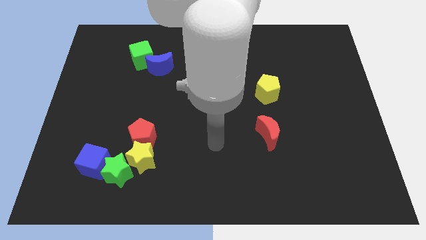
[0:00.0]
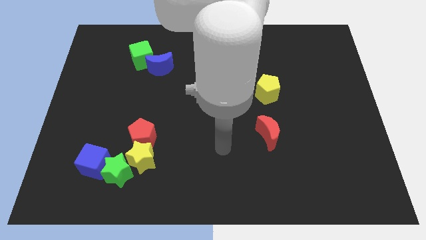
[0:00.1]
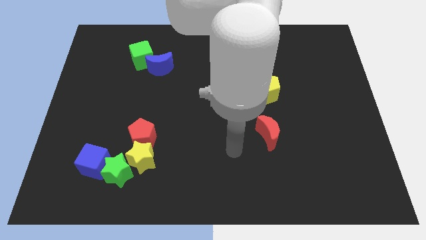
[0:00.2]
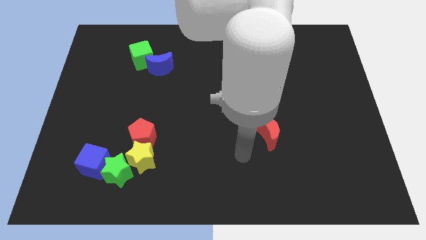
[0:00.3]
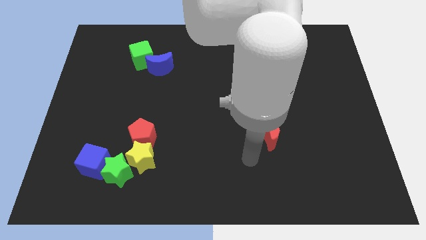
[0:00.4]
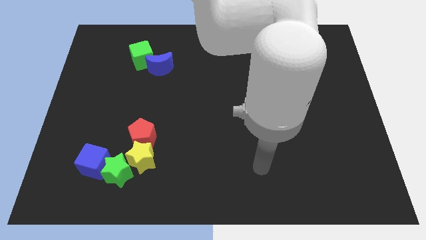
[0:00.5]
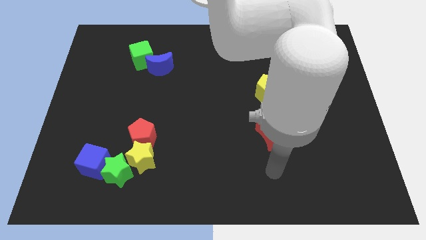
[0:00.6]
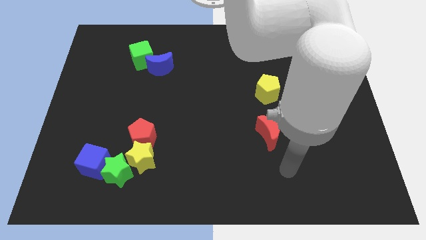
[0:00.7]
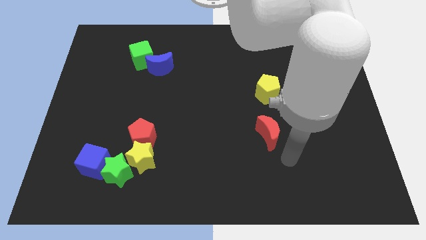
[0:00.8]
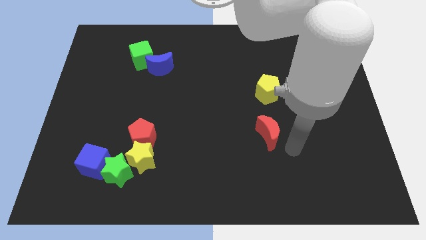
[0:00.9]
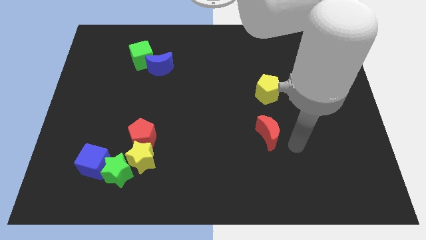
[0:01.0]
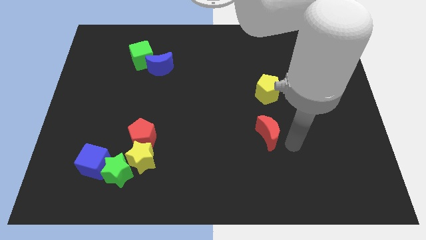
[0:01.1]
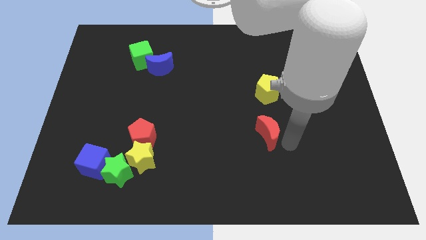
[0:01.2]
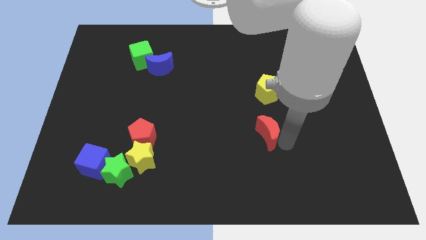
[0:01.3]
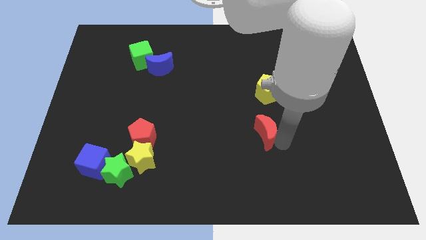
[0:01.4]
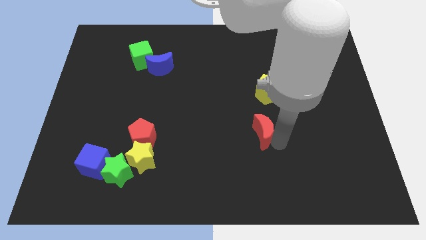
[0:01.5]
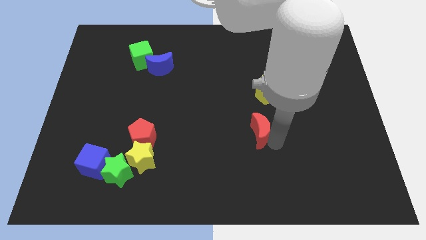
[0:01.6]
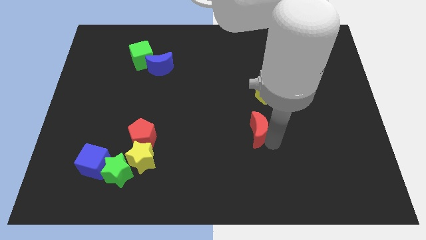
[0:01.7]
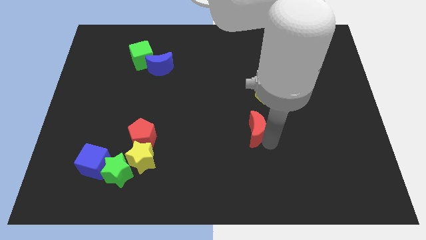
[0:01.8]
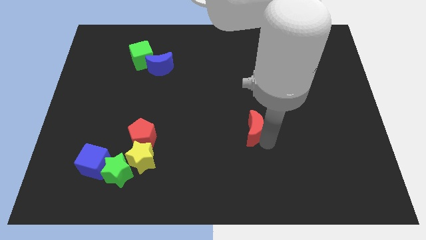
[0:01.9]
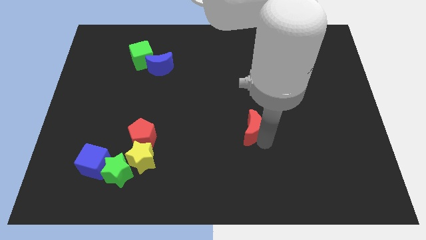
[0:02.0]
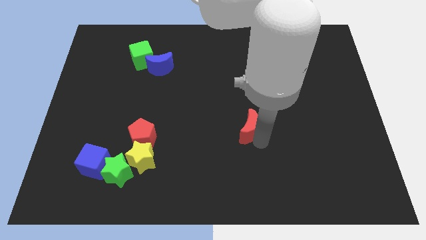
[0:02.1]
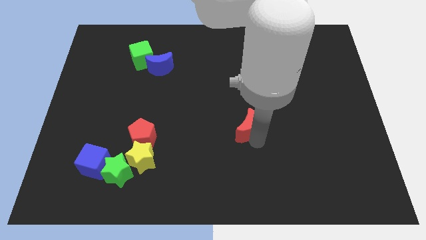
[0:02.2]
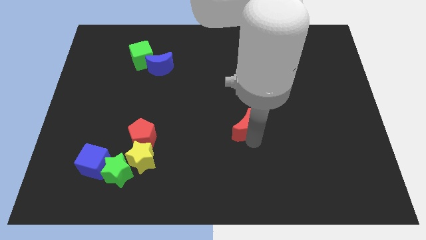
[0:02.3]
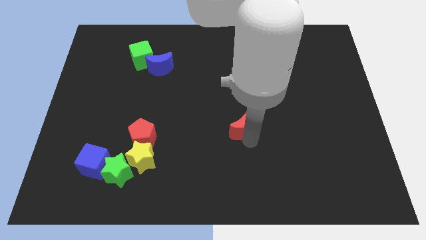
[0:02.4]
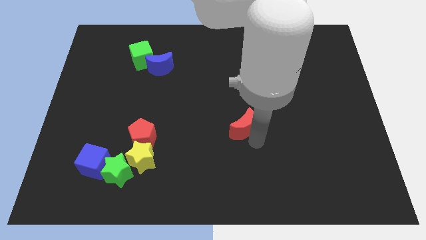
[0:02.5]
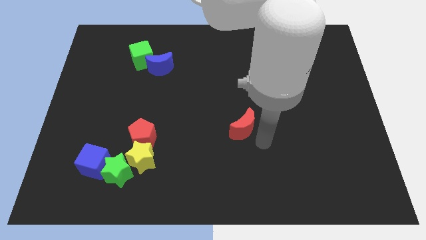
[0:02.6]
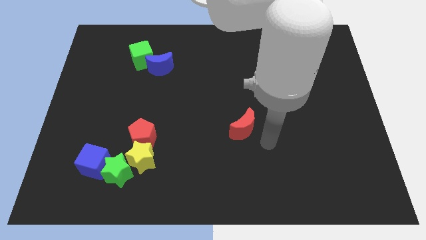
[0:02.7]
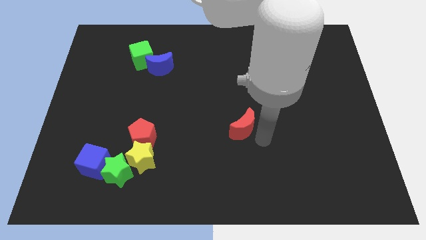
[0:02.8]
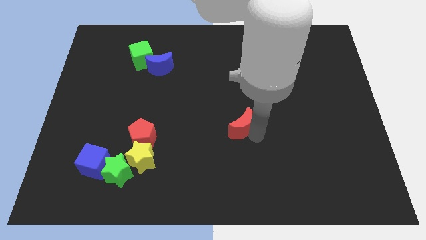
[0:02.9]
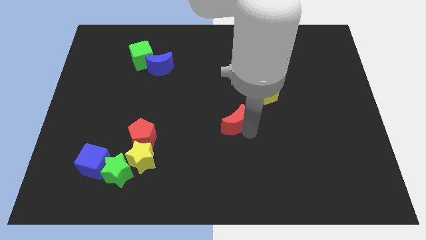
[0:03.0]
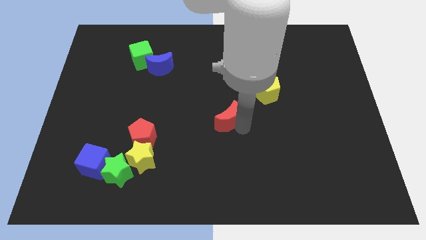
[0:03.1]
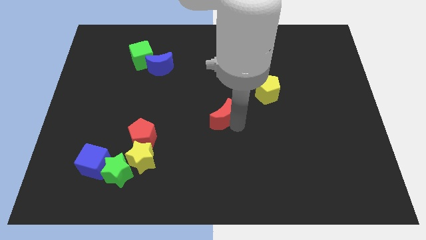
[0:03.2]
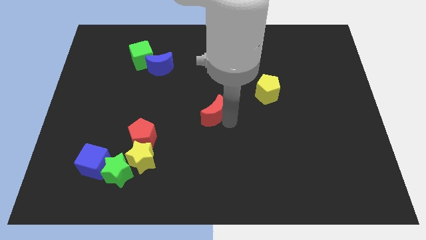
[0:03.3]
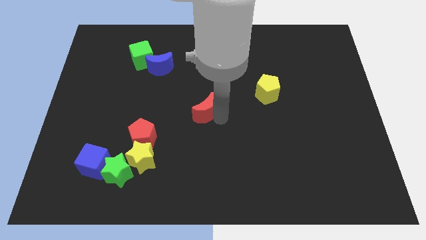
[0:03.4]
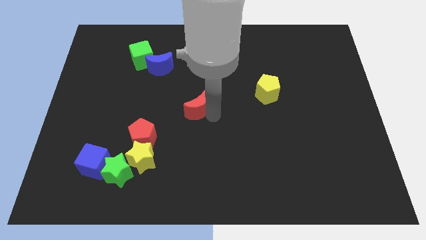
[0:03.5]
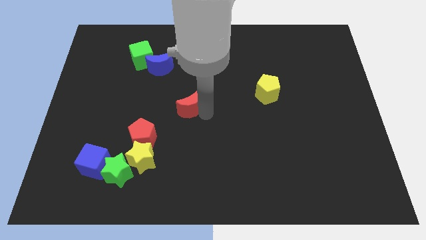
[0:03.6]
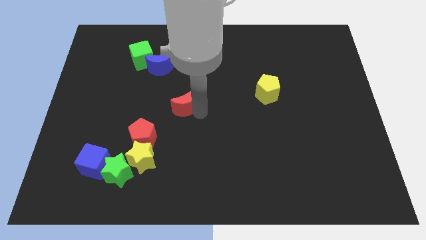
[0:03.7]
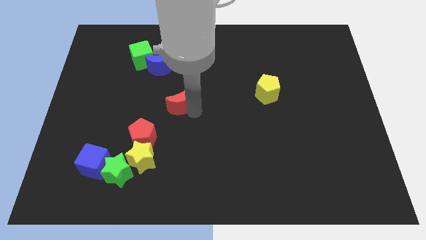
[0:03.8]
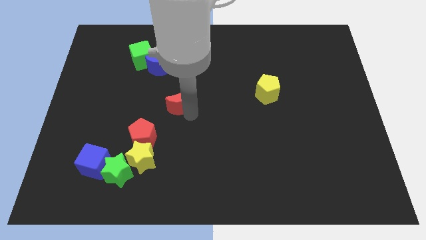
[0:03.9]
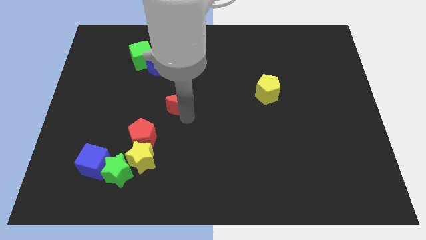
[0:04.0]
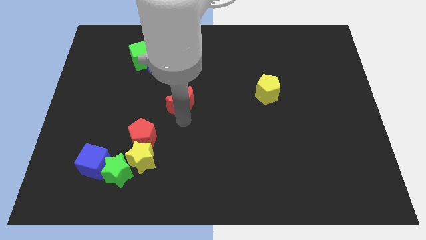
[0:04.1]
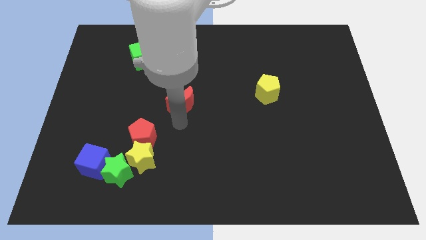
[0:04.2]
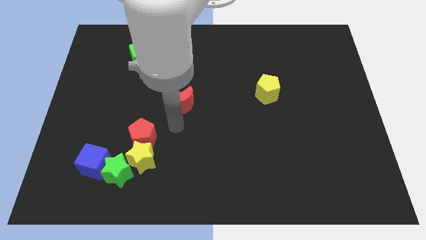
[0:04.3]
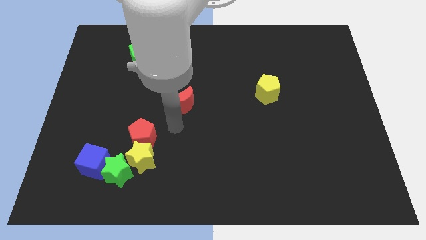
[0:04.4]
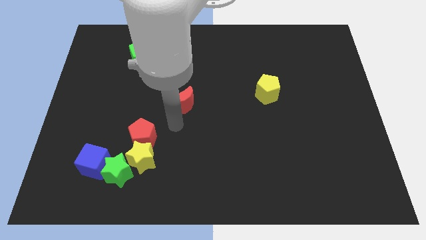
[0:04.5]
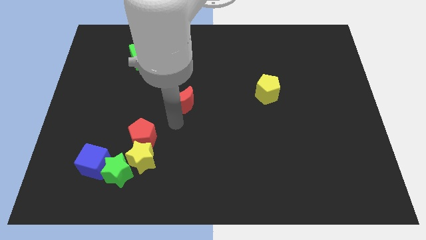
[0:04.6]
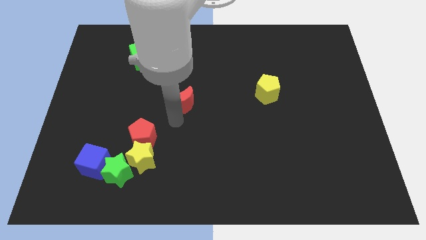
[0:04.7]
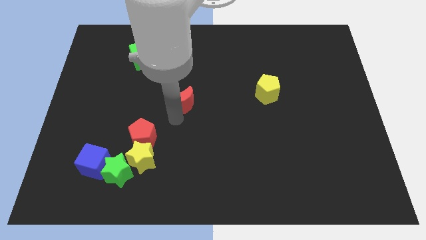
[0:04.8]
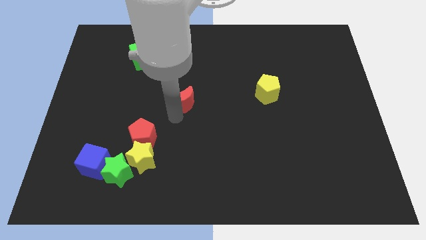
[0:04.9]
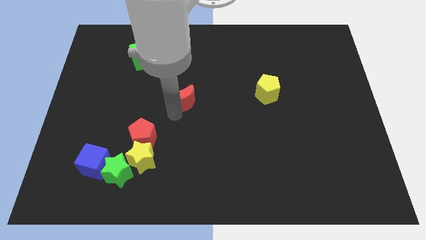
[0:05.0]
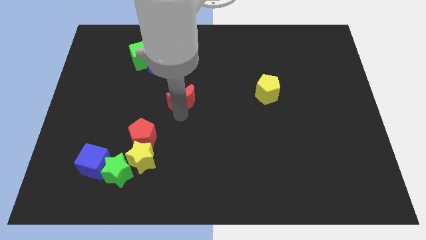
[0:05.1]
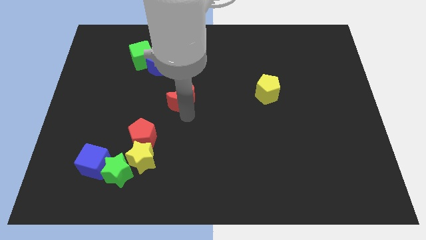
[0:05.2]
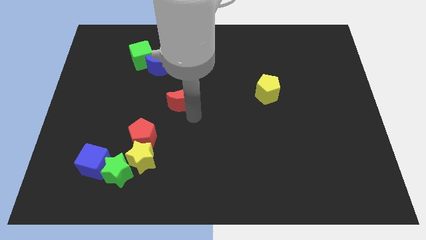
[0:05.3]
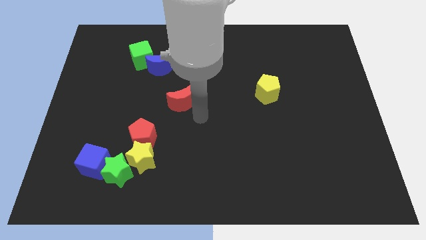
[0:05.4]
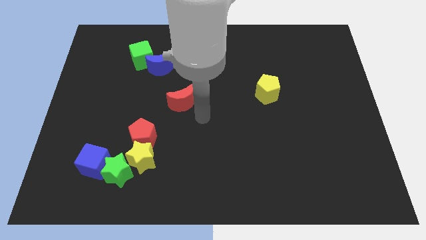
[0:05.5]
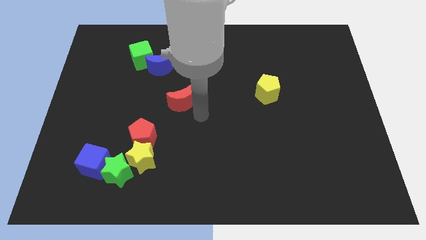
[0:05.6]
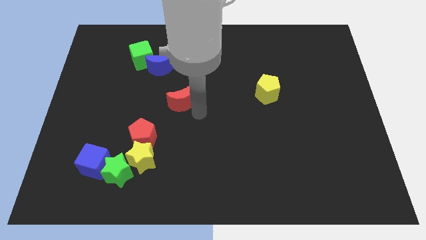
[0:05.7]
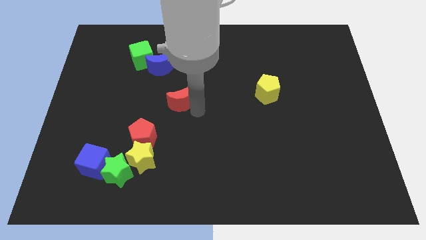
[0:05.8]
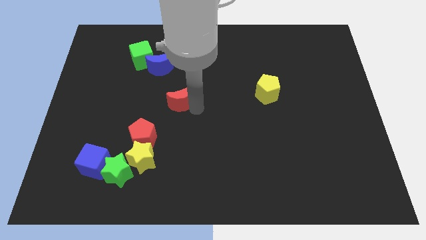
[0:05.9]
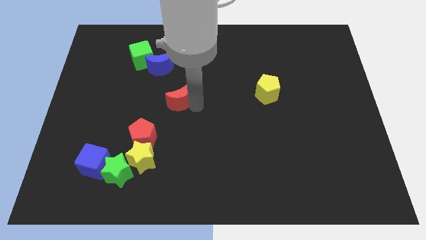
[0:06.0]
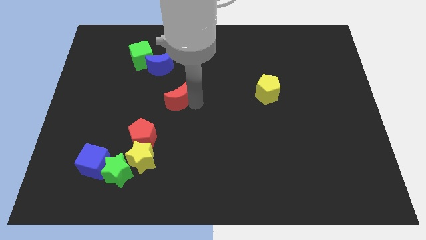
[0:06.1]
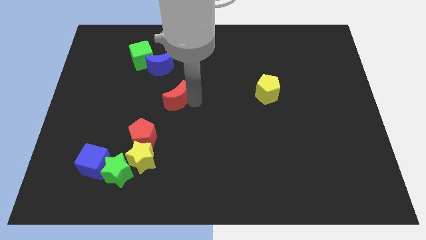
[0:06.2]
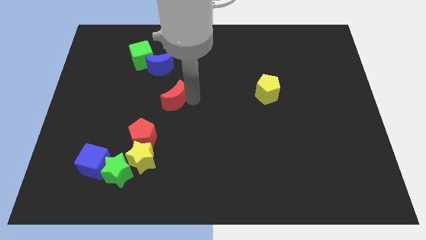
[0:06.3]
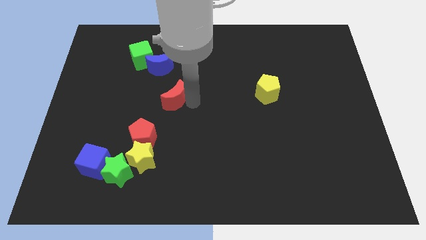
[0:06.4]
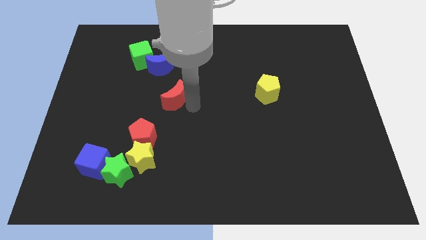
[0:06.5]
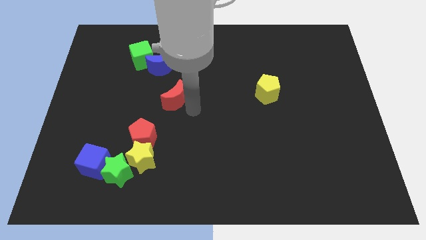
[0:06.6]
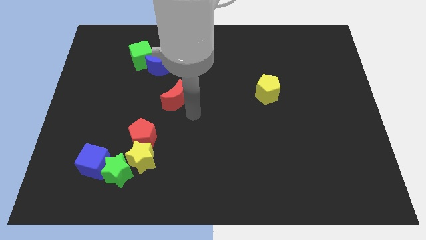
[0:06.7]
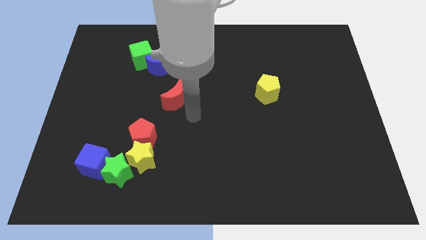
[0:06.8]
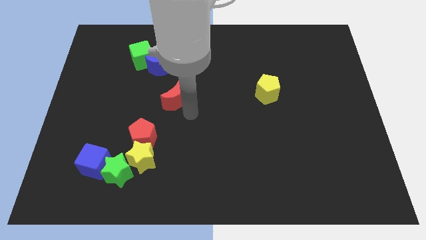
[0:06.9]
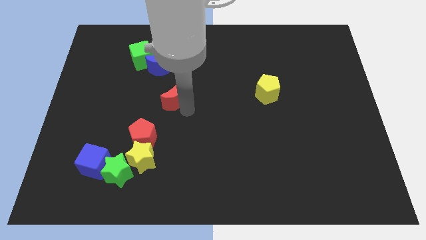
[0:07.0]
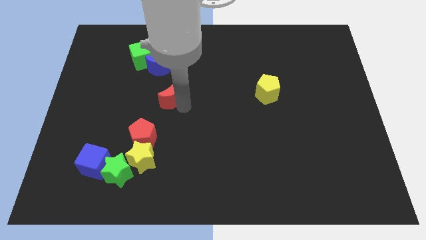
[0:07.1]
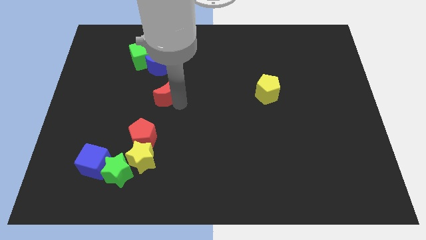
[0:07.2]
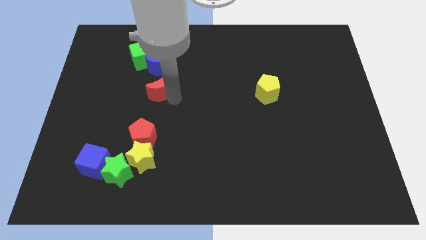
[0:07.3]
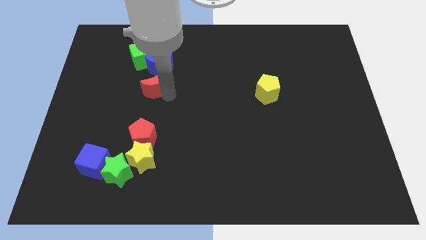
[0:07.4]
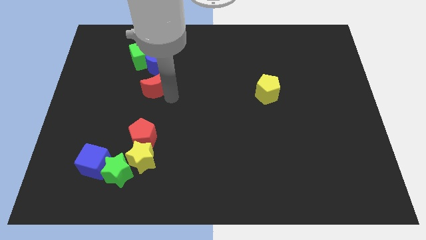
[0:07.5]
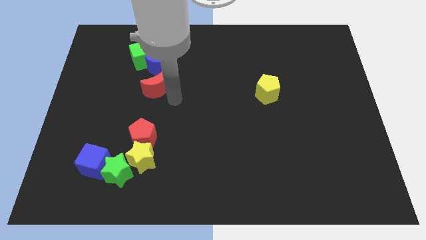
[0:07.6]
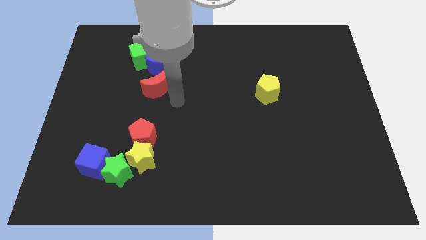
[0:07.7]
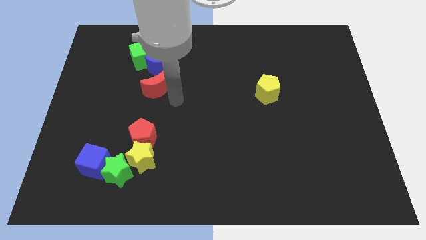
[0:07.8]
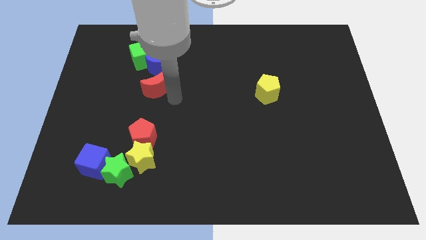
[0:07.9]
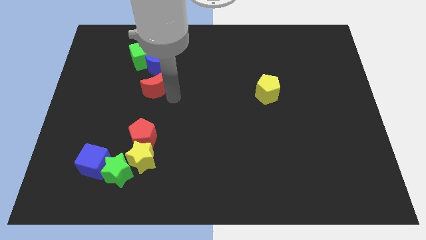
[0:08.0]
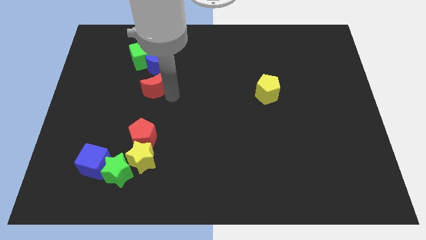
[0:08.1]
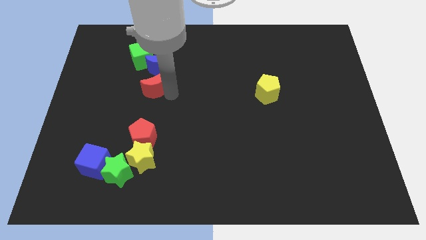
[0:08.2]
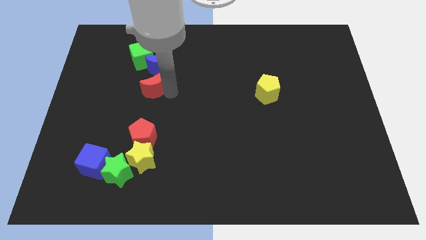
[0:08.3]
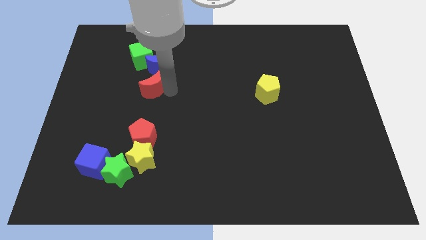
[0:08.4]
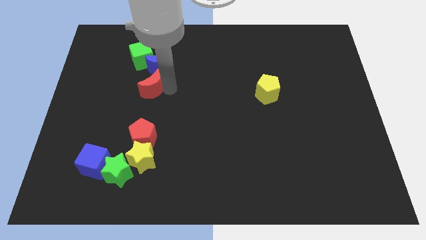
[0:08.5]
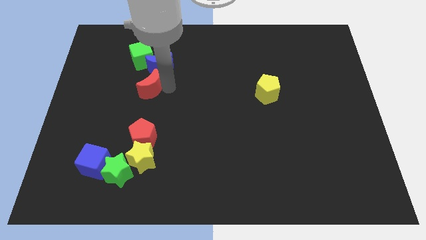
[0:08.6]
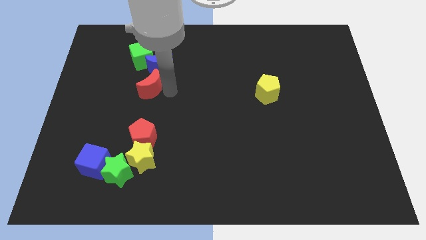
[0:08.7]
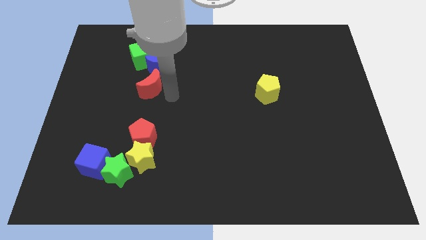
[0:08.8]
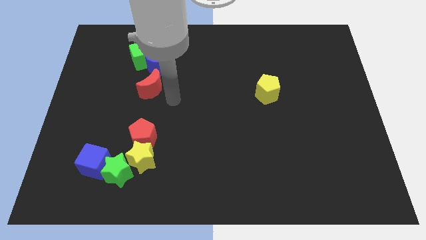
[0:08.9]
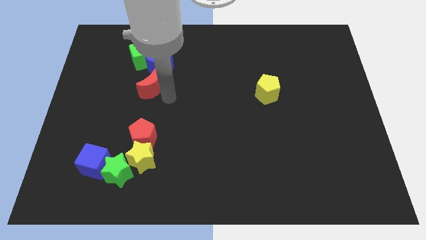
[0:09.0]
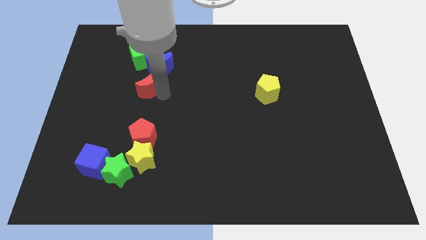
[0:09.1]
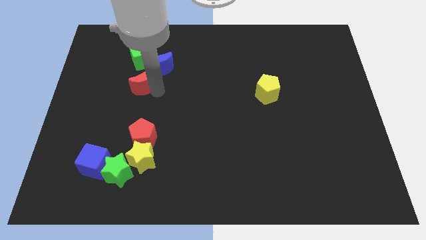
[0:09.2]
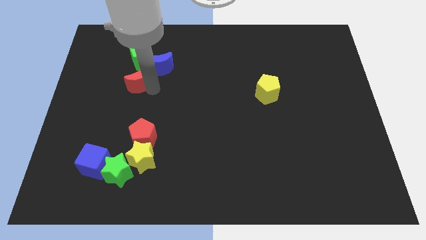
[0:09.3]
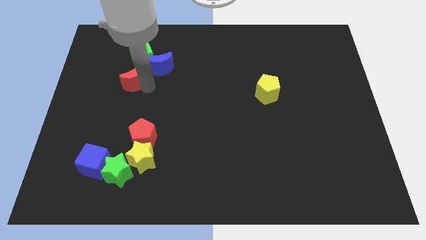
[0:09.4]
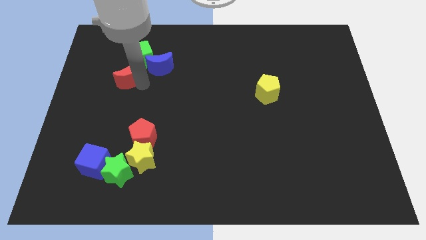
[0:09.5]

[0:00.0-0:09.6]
move the red moon to the bottom left side of the green cube
